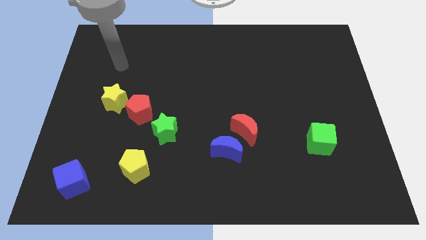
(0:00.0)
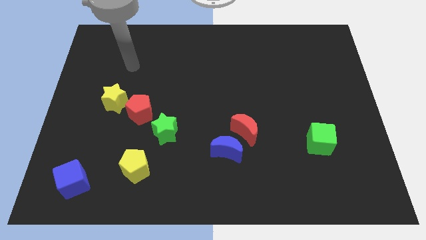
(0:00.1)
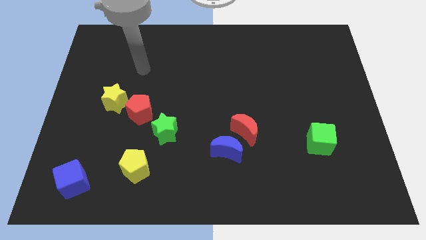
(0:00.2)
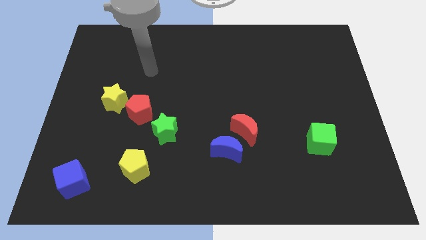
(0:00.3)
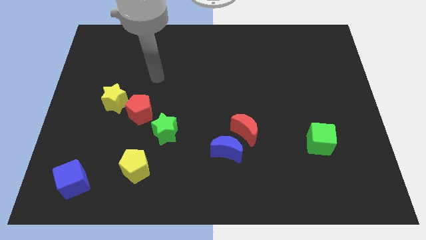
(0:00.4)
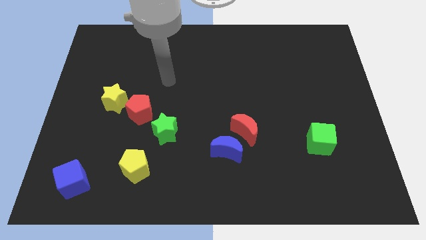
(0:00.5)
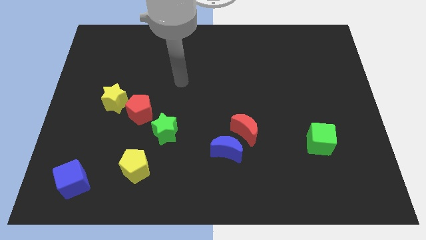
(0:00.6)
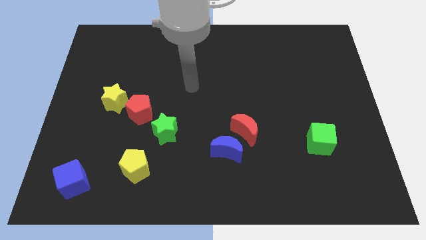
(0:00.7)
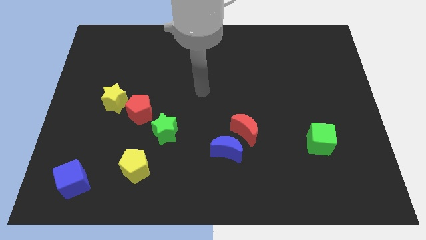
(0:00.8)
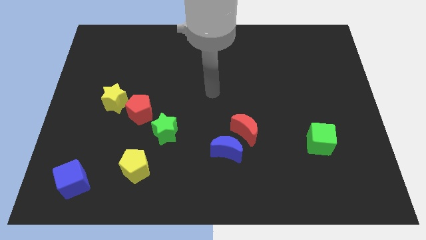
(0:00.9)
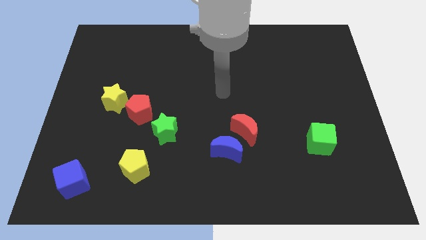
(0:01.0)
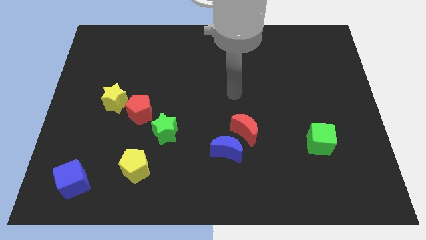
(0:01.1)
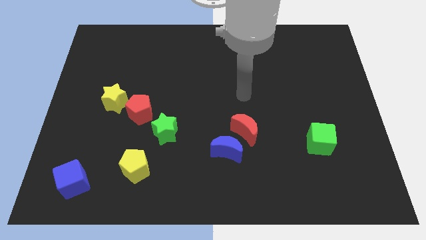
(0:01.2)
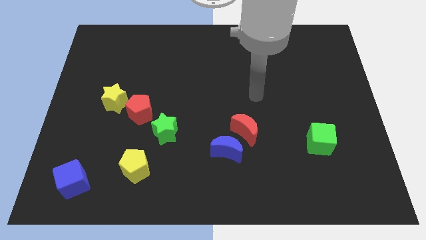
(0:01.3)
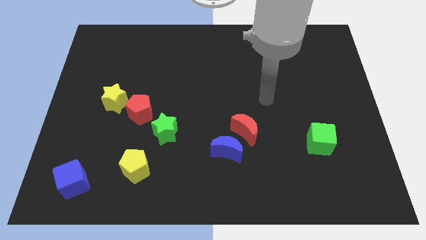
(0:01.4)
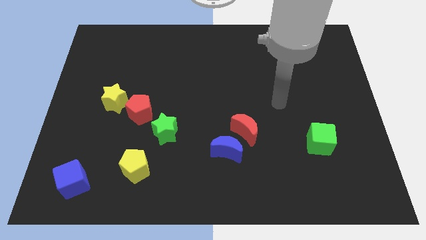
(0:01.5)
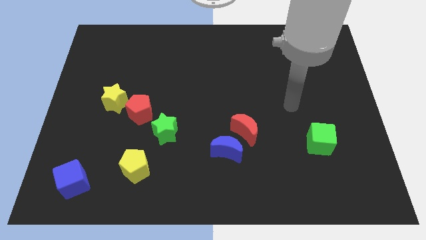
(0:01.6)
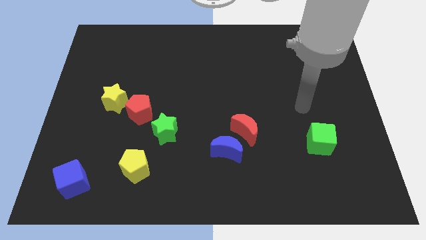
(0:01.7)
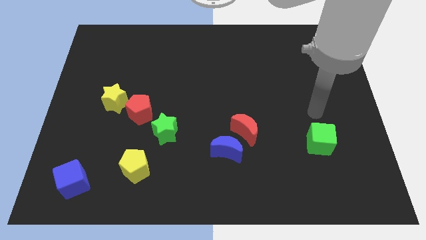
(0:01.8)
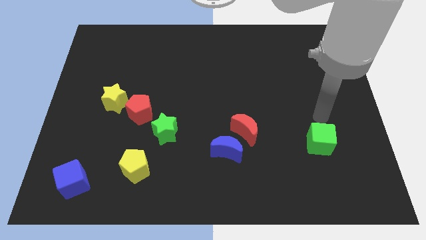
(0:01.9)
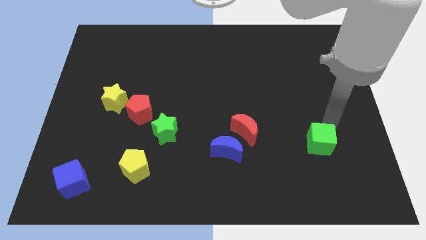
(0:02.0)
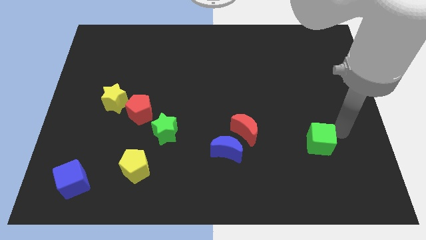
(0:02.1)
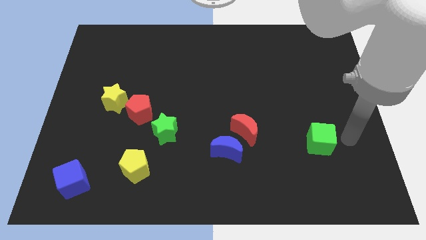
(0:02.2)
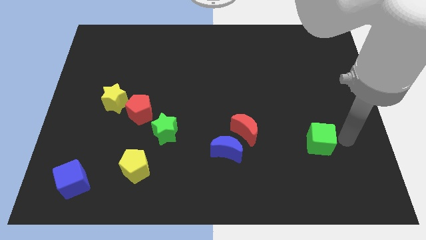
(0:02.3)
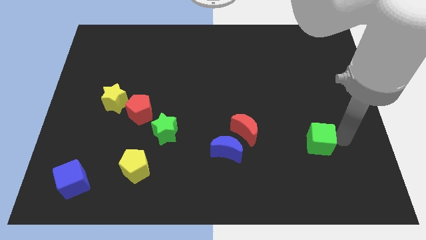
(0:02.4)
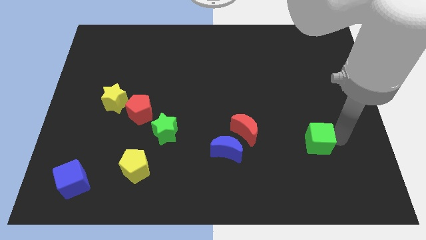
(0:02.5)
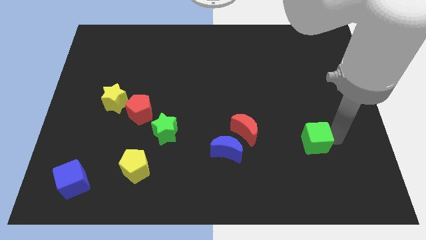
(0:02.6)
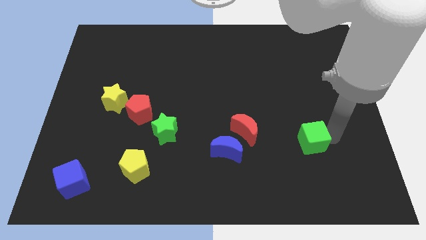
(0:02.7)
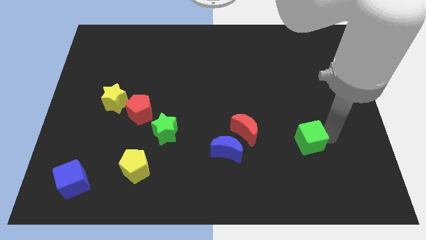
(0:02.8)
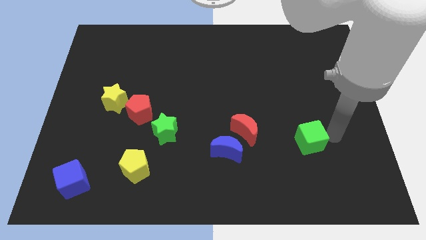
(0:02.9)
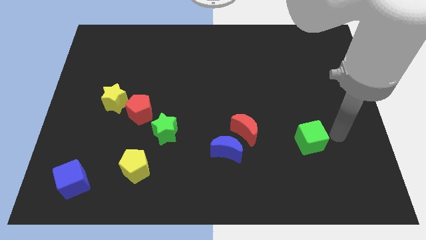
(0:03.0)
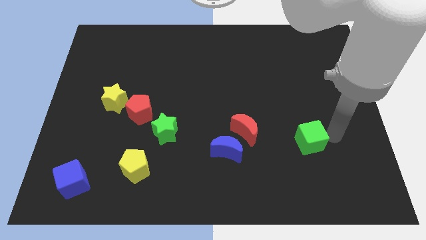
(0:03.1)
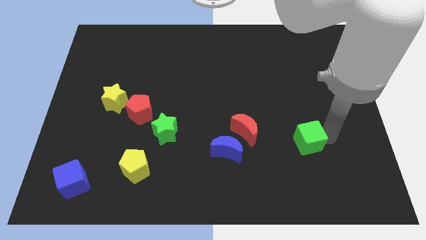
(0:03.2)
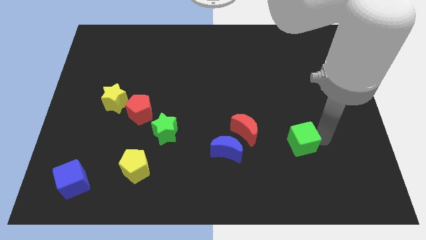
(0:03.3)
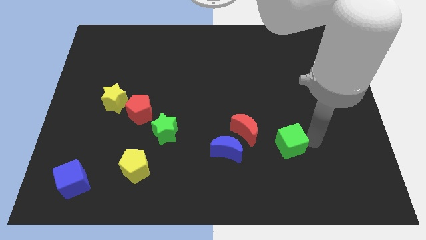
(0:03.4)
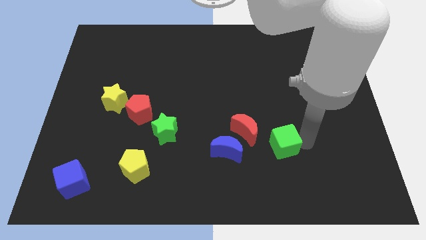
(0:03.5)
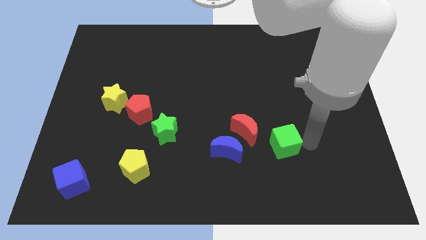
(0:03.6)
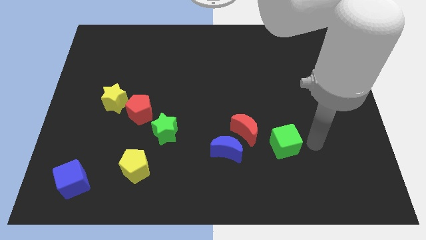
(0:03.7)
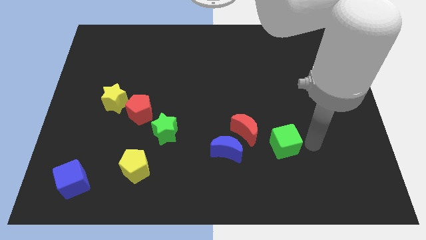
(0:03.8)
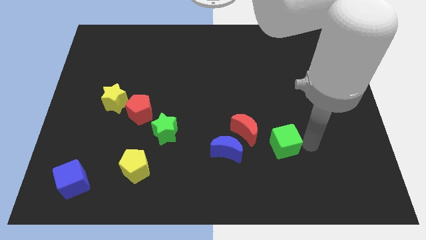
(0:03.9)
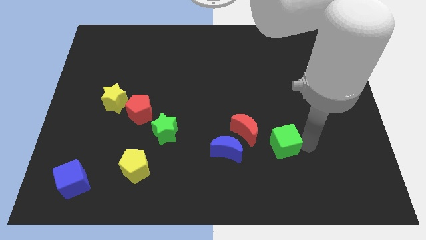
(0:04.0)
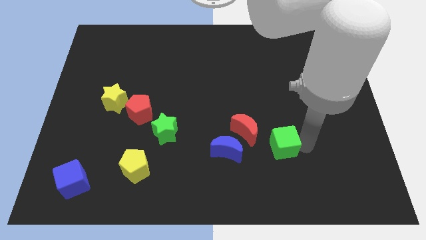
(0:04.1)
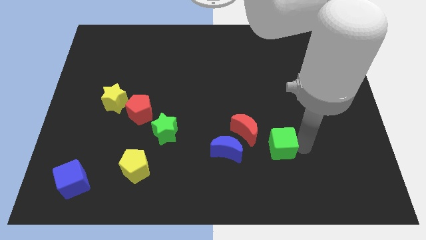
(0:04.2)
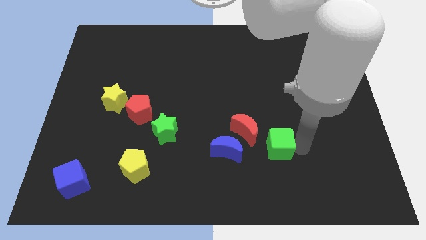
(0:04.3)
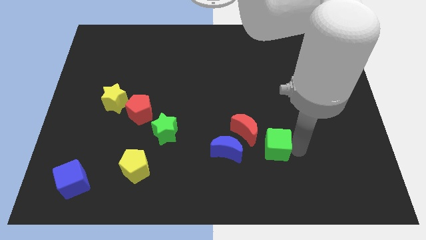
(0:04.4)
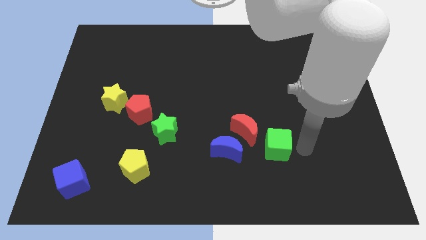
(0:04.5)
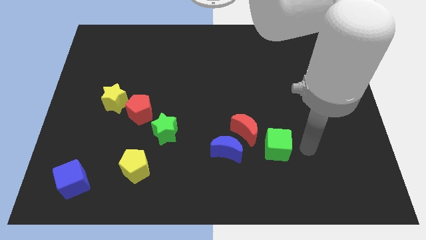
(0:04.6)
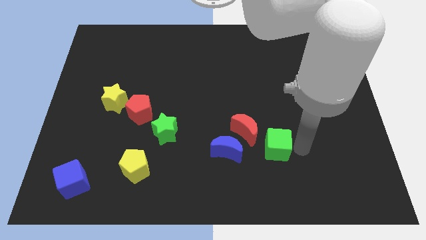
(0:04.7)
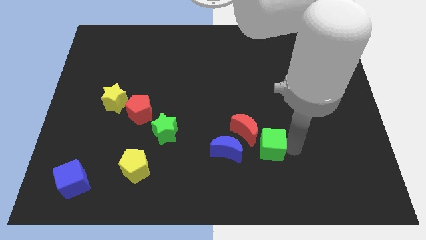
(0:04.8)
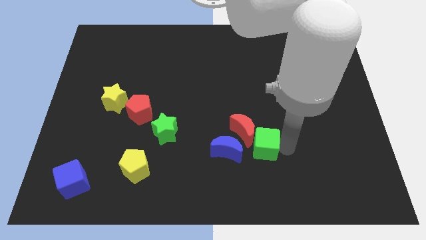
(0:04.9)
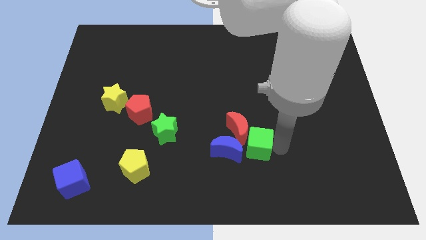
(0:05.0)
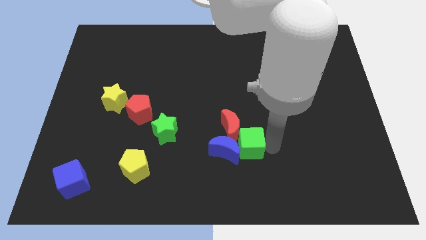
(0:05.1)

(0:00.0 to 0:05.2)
push the green cube towards the blue moon

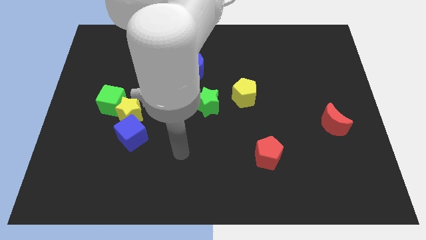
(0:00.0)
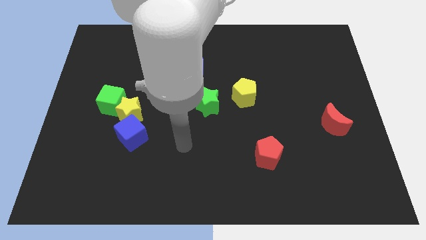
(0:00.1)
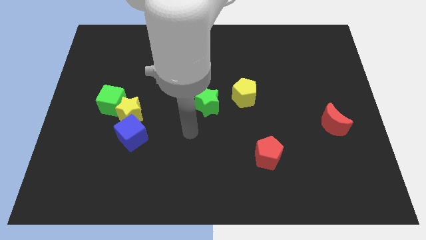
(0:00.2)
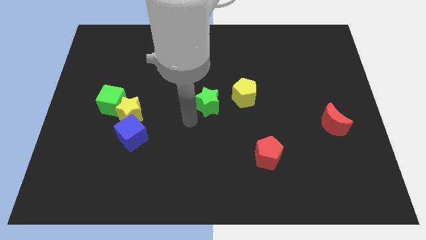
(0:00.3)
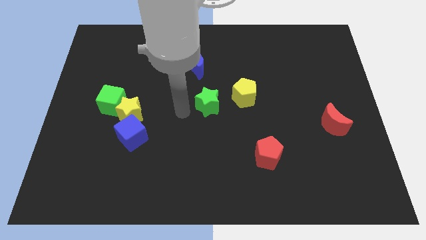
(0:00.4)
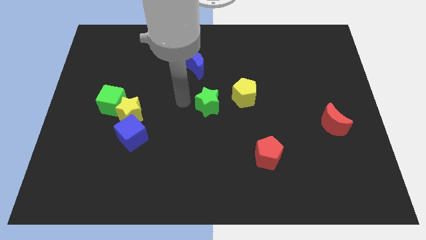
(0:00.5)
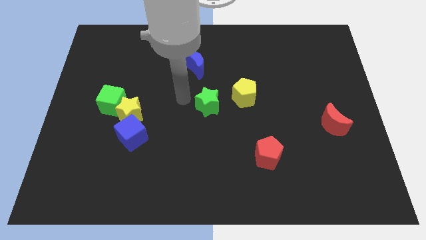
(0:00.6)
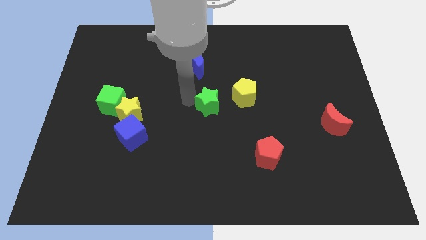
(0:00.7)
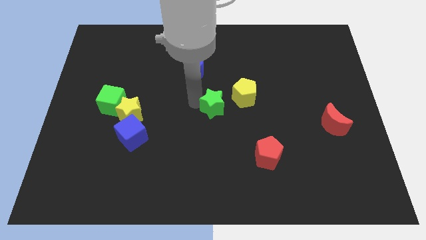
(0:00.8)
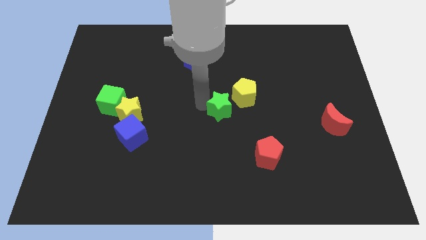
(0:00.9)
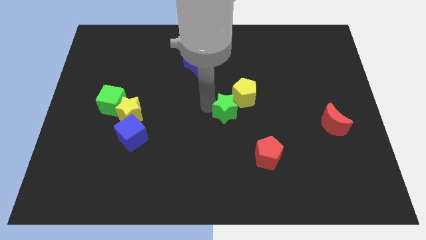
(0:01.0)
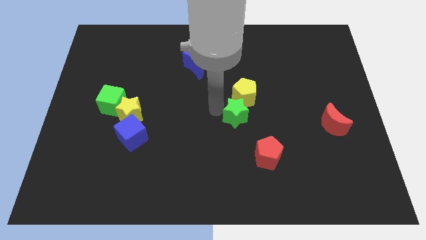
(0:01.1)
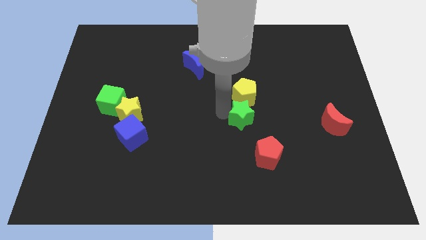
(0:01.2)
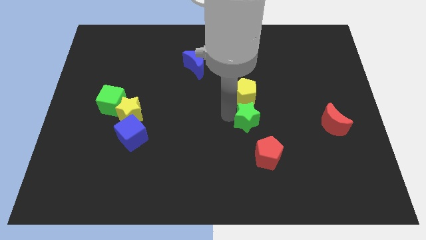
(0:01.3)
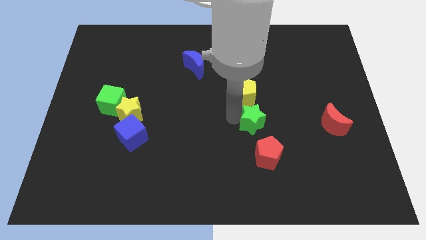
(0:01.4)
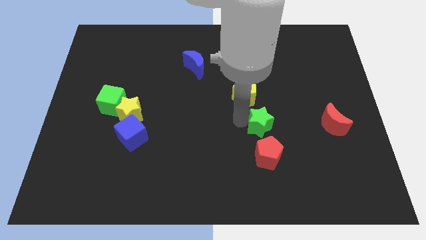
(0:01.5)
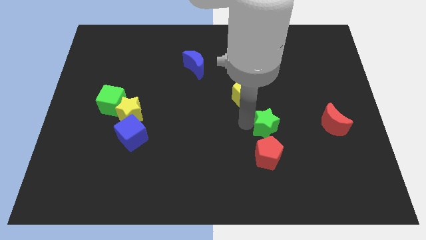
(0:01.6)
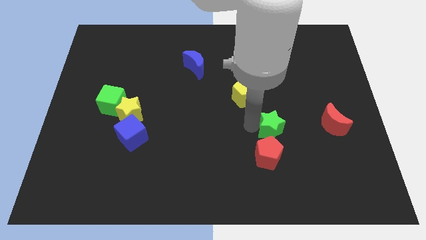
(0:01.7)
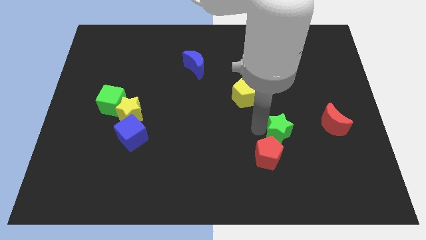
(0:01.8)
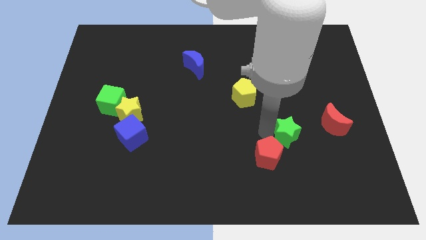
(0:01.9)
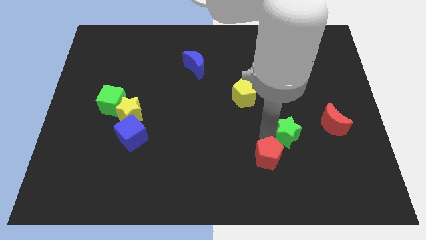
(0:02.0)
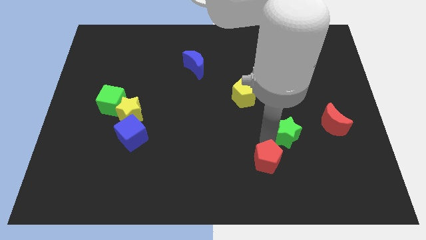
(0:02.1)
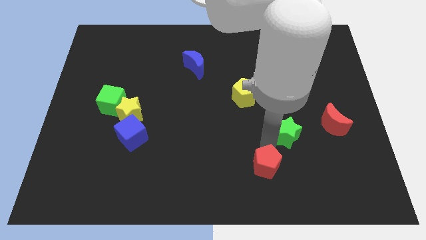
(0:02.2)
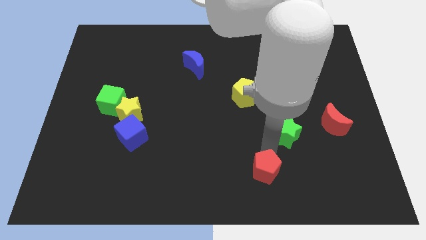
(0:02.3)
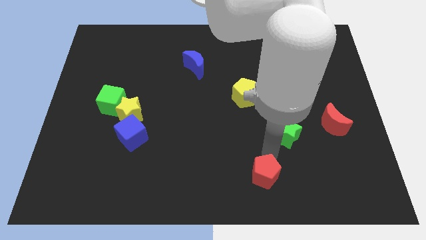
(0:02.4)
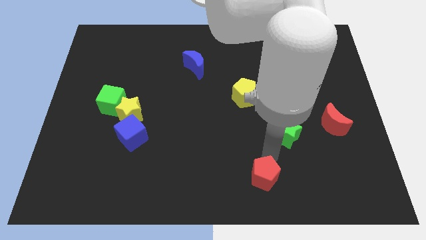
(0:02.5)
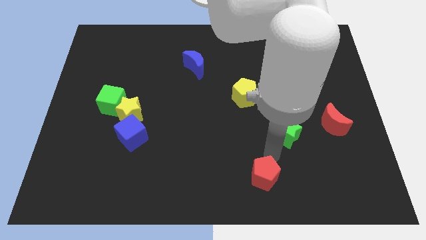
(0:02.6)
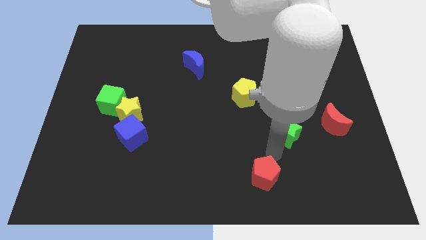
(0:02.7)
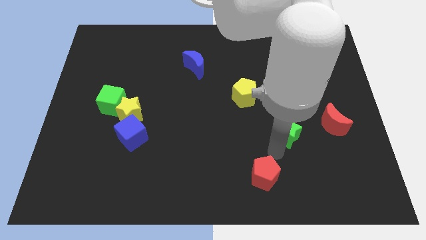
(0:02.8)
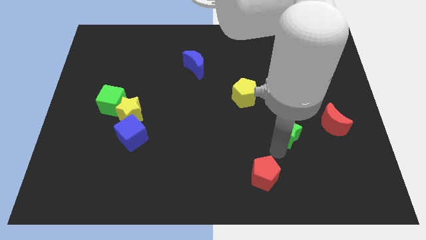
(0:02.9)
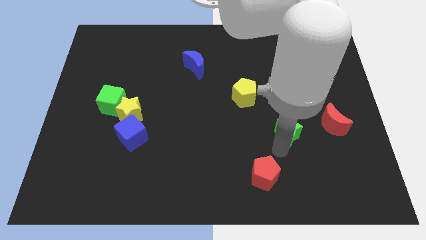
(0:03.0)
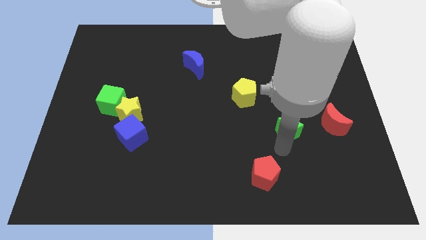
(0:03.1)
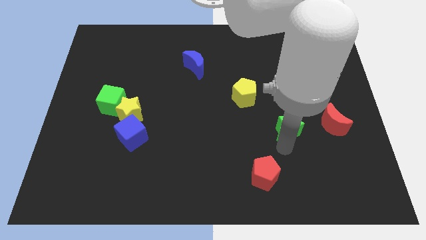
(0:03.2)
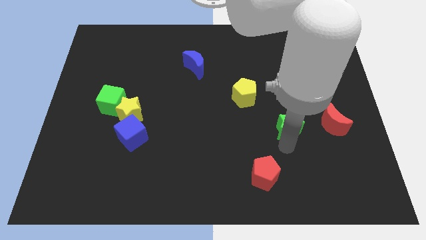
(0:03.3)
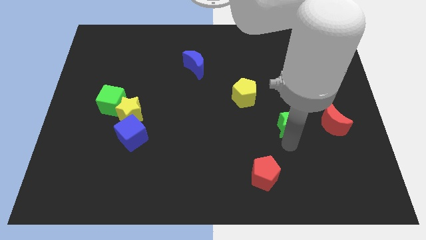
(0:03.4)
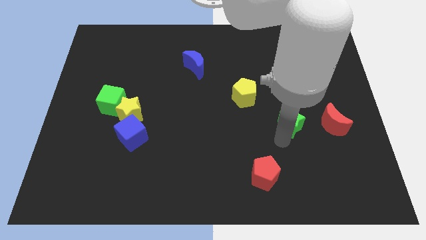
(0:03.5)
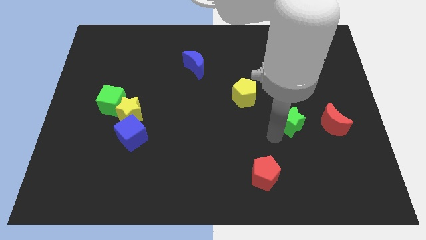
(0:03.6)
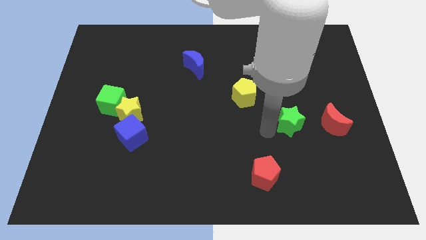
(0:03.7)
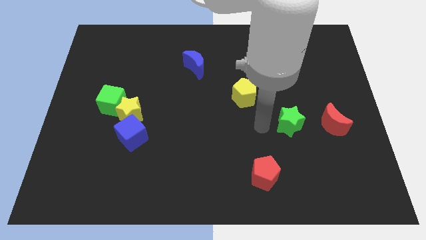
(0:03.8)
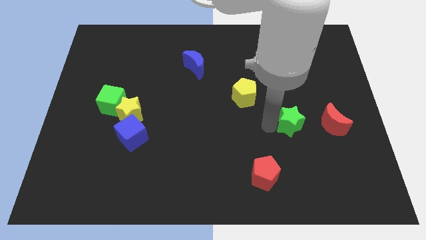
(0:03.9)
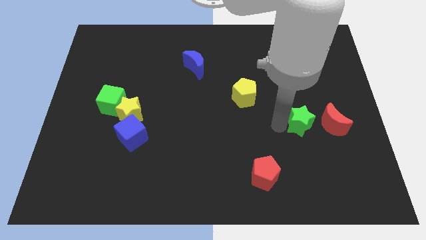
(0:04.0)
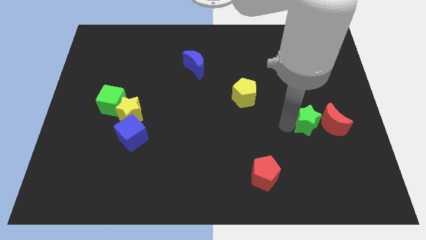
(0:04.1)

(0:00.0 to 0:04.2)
move the green star to the red moon
